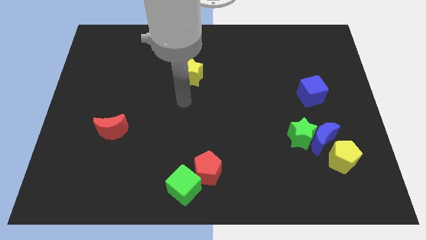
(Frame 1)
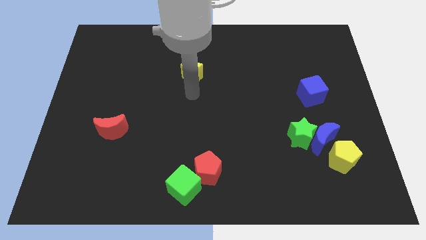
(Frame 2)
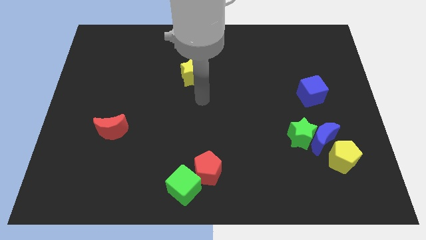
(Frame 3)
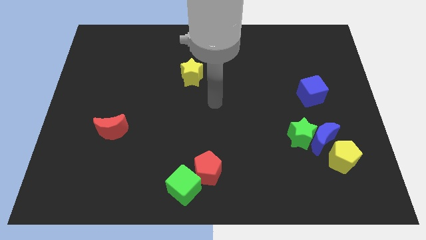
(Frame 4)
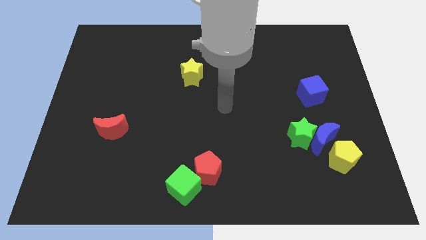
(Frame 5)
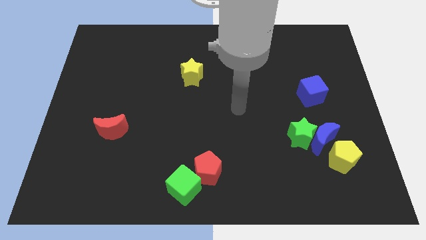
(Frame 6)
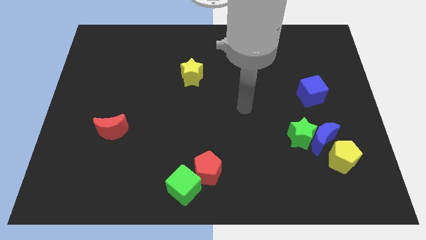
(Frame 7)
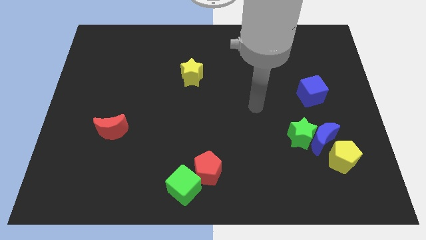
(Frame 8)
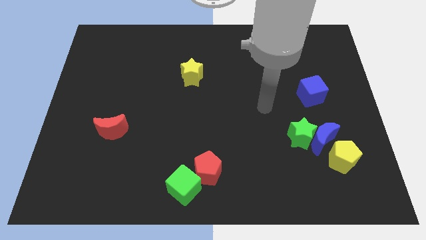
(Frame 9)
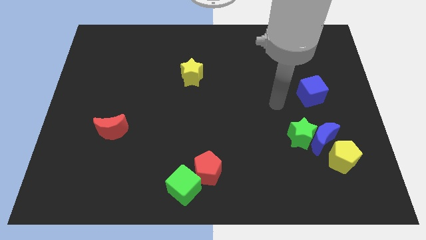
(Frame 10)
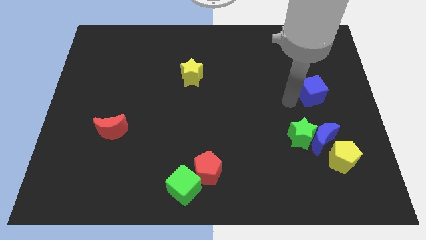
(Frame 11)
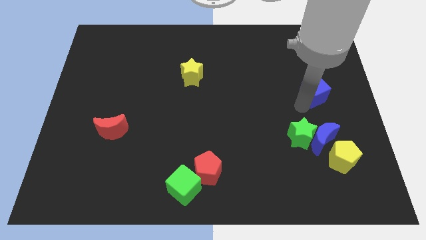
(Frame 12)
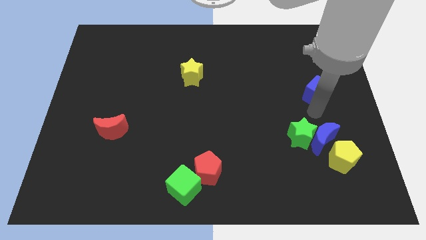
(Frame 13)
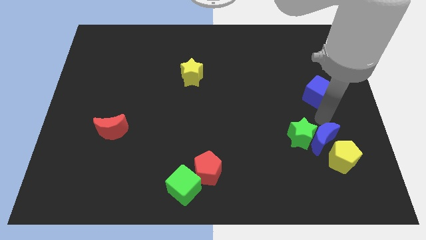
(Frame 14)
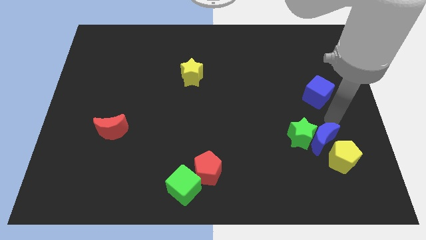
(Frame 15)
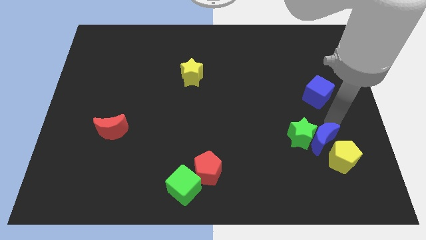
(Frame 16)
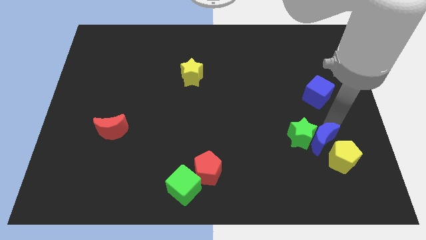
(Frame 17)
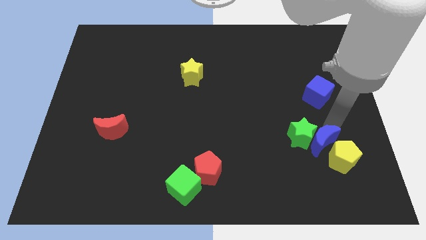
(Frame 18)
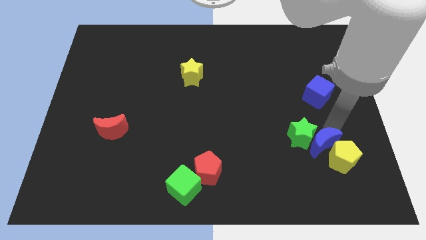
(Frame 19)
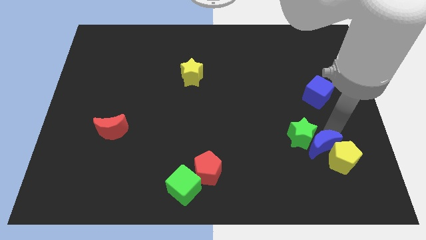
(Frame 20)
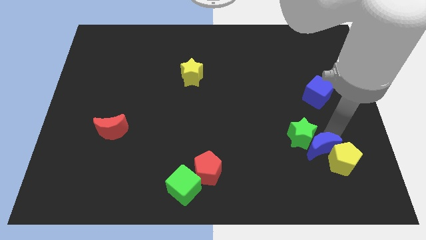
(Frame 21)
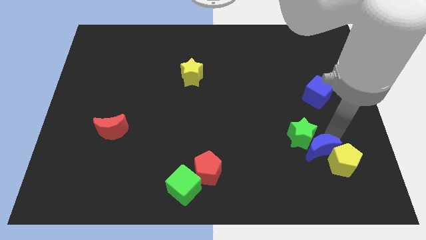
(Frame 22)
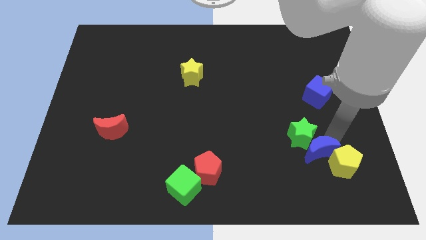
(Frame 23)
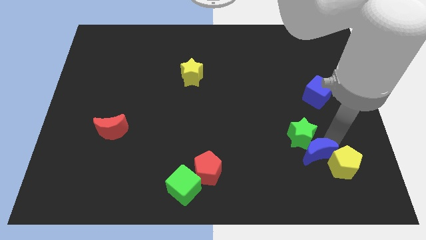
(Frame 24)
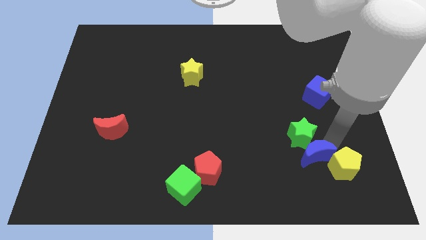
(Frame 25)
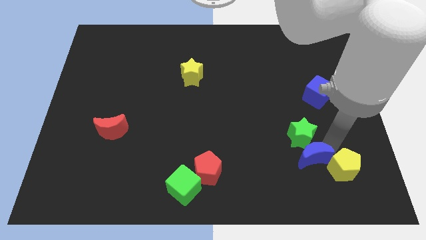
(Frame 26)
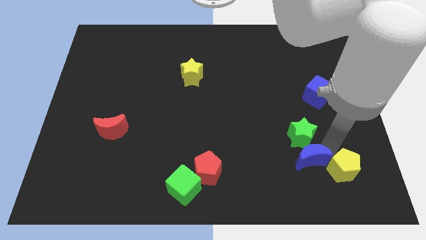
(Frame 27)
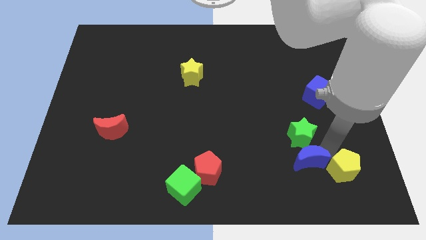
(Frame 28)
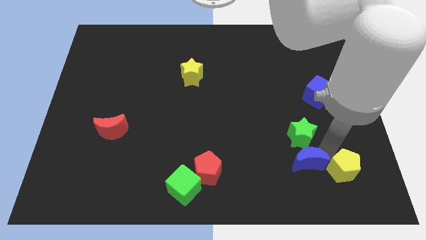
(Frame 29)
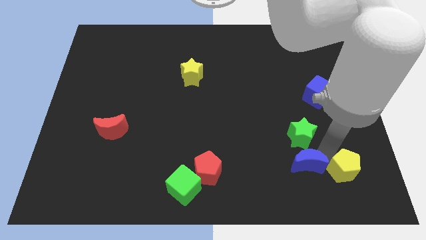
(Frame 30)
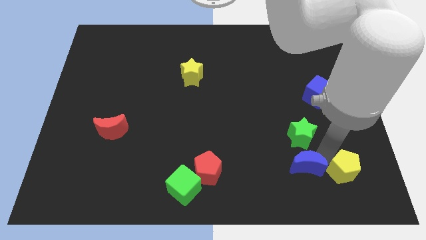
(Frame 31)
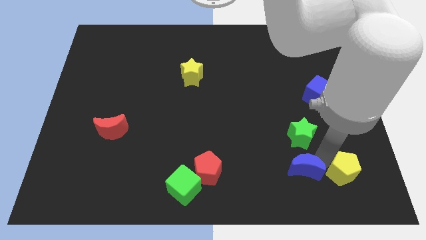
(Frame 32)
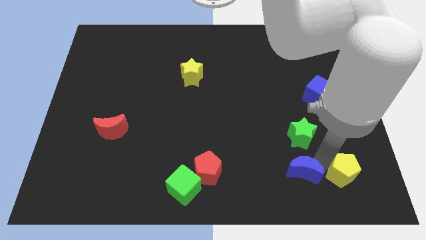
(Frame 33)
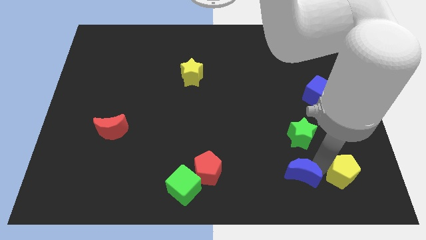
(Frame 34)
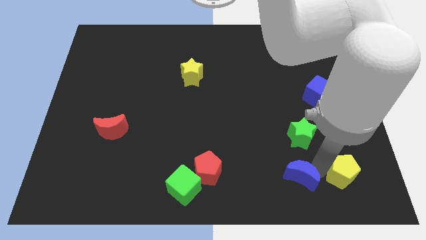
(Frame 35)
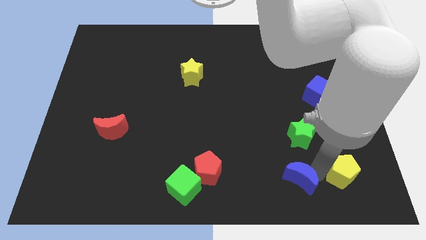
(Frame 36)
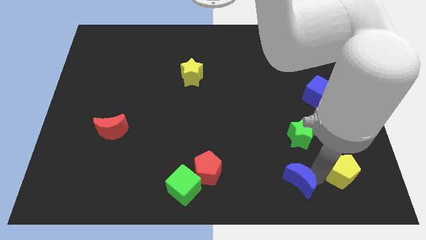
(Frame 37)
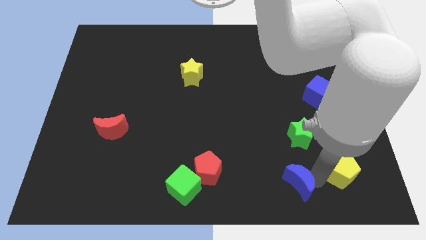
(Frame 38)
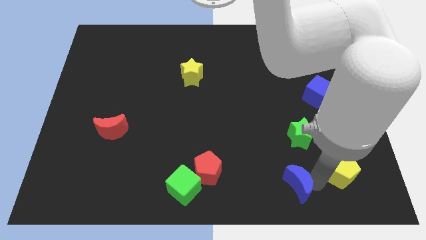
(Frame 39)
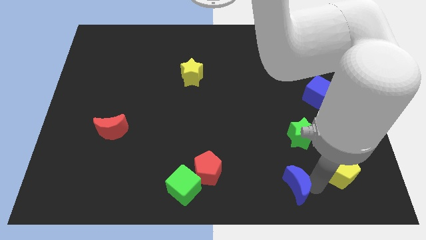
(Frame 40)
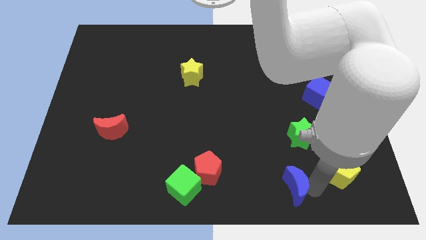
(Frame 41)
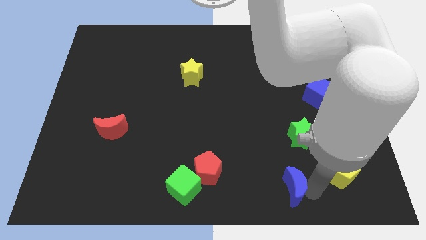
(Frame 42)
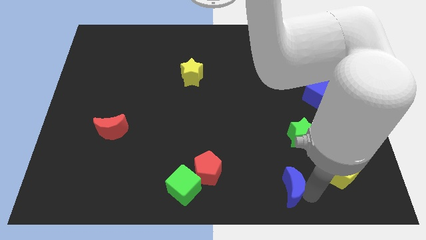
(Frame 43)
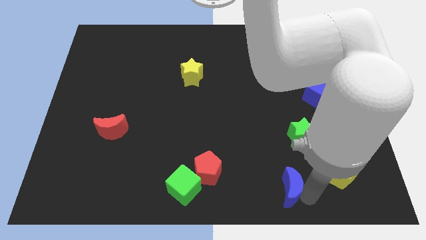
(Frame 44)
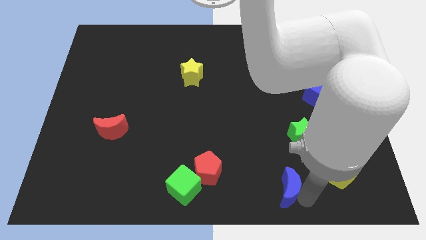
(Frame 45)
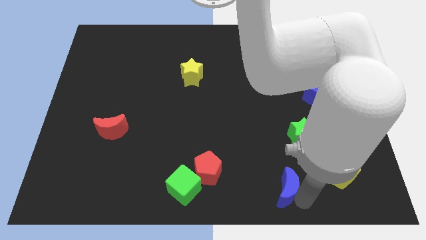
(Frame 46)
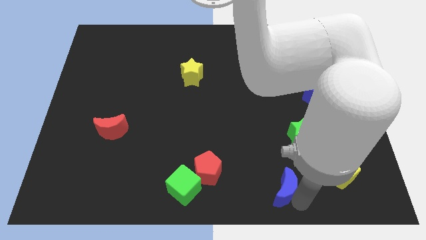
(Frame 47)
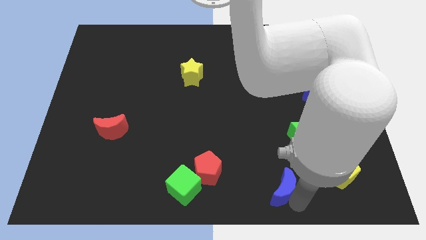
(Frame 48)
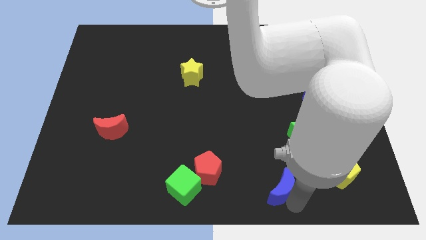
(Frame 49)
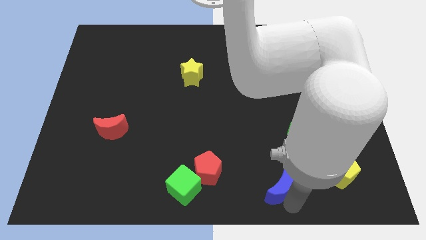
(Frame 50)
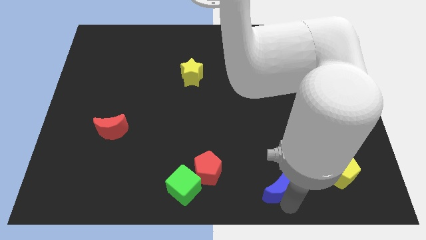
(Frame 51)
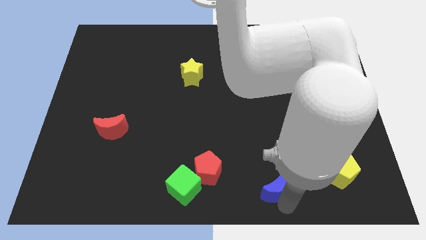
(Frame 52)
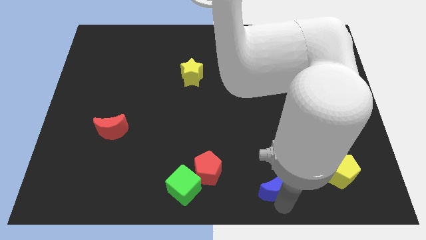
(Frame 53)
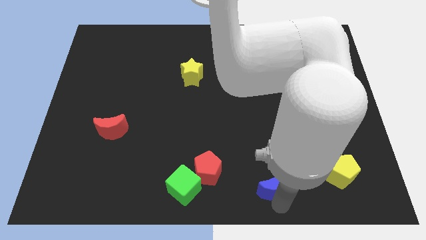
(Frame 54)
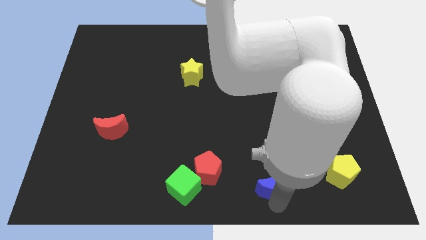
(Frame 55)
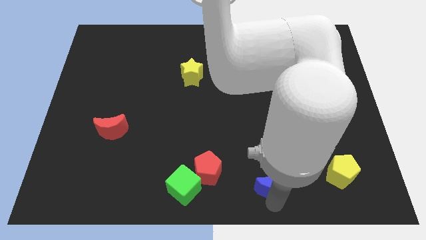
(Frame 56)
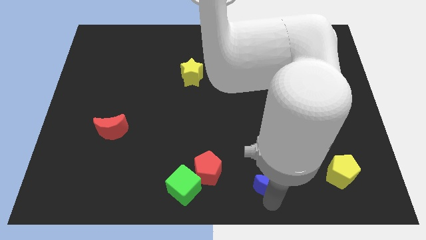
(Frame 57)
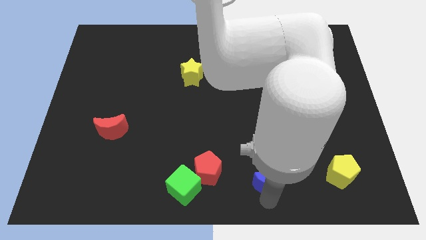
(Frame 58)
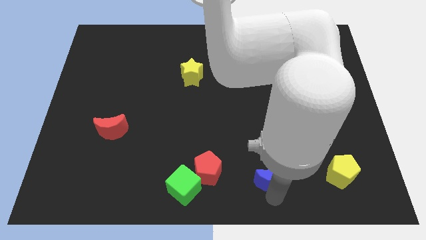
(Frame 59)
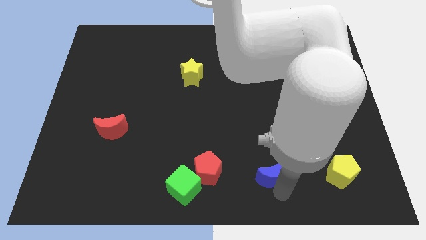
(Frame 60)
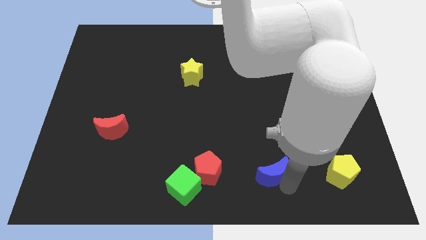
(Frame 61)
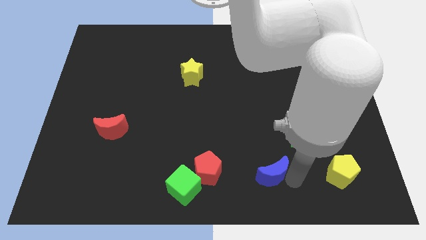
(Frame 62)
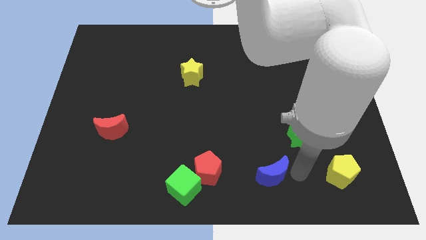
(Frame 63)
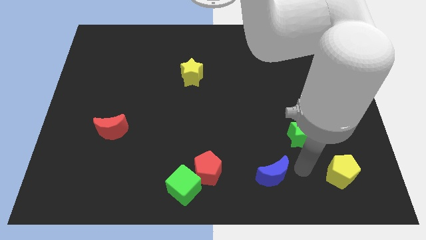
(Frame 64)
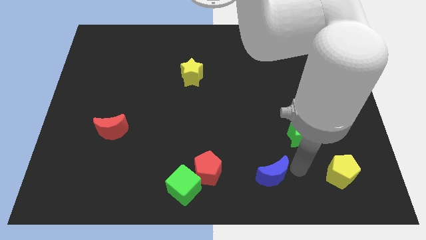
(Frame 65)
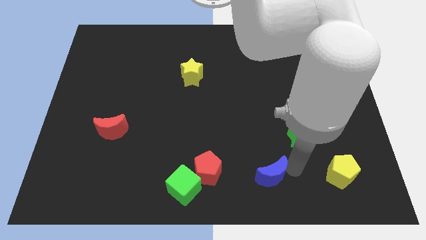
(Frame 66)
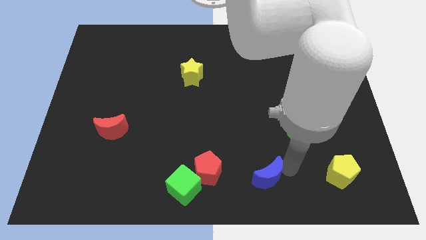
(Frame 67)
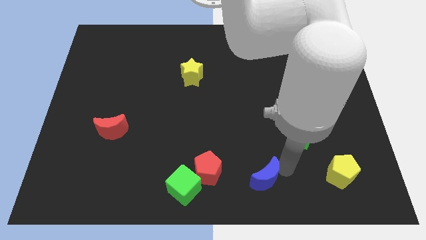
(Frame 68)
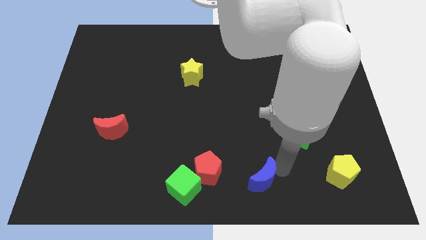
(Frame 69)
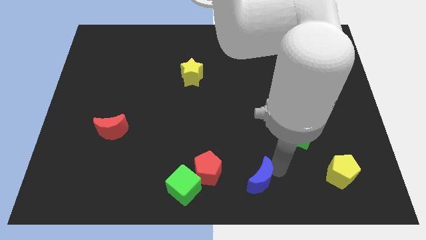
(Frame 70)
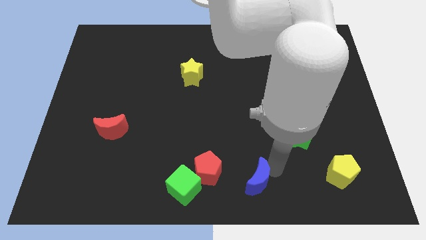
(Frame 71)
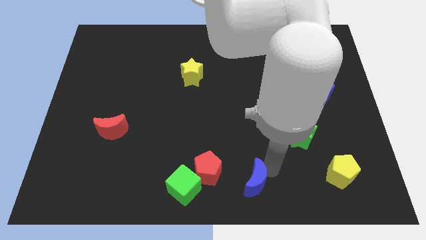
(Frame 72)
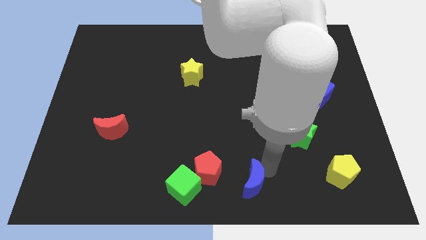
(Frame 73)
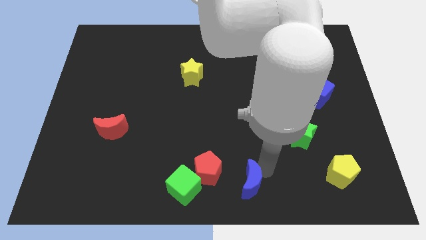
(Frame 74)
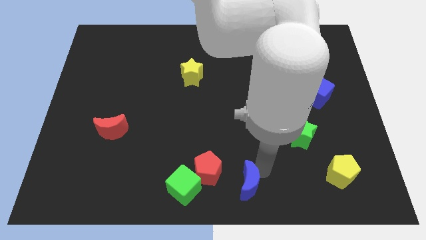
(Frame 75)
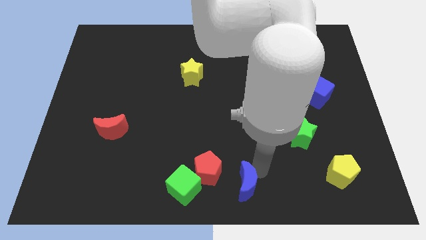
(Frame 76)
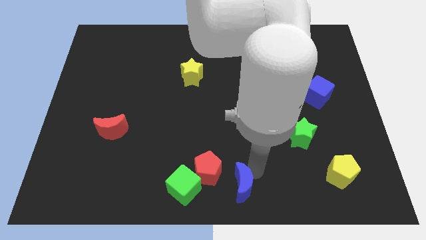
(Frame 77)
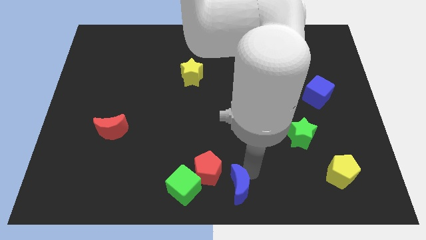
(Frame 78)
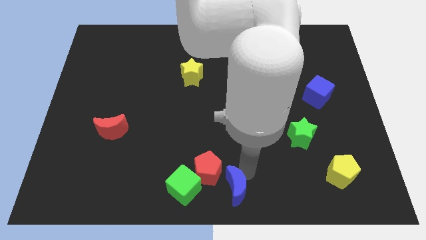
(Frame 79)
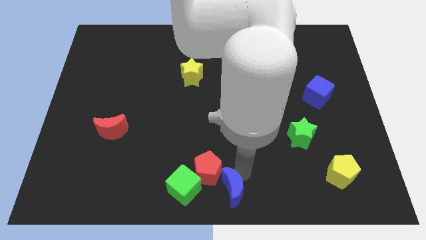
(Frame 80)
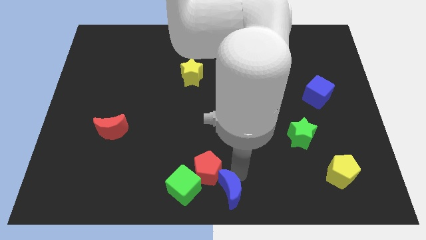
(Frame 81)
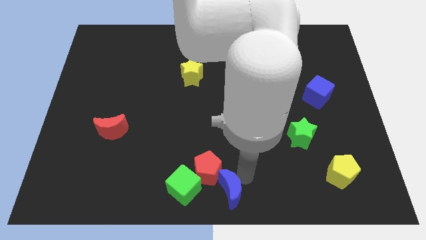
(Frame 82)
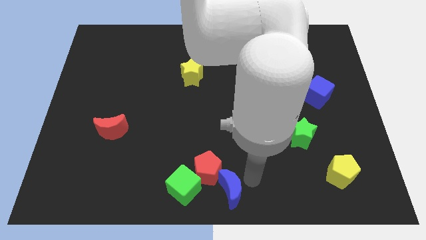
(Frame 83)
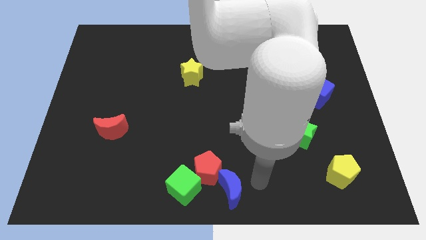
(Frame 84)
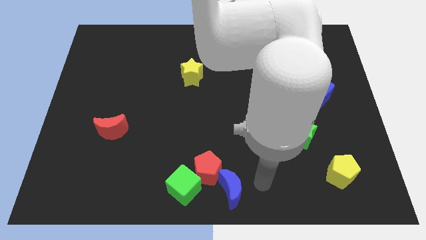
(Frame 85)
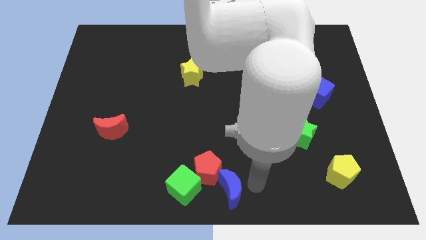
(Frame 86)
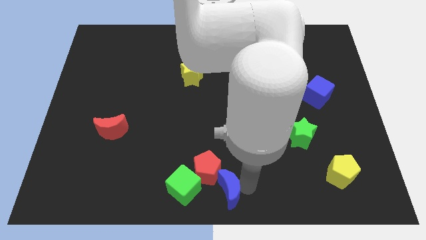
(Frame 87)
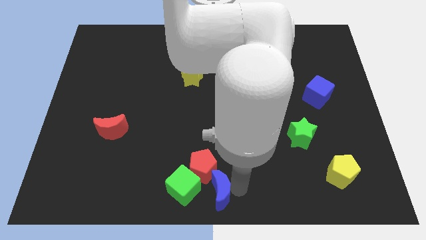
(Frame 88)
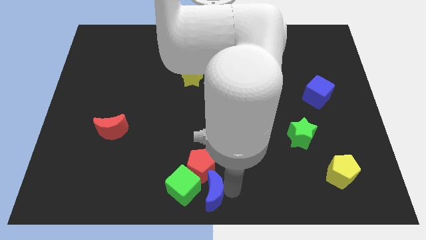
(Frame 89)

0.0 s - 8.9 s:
push the blue moon towards the green cube
